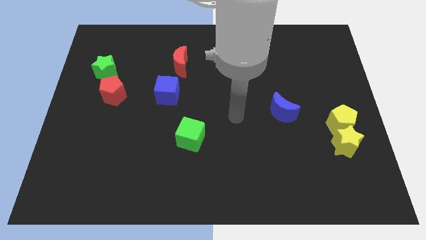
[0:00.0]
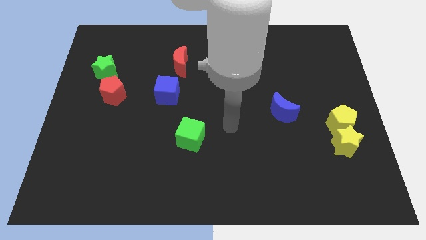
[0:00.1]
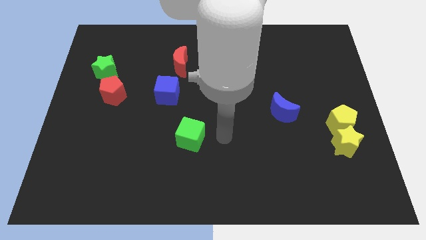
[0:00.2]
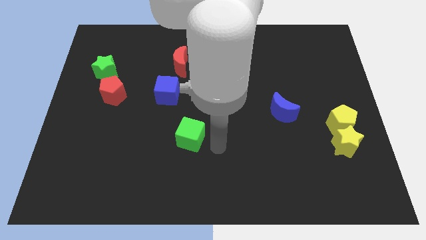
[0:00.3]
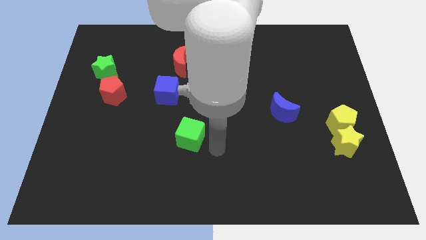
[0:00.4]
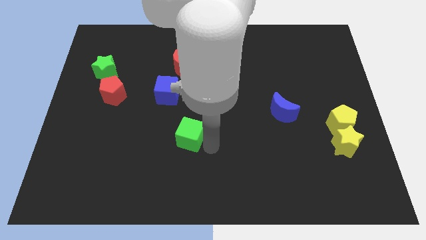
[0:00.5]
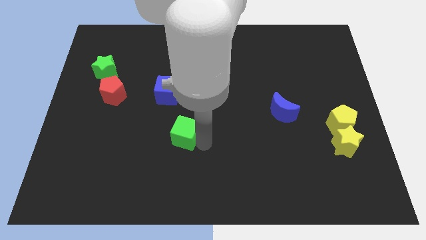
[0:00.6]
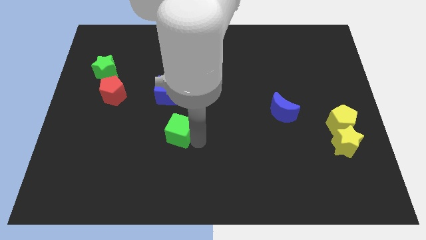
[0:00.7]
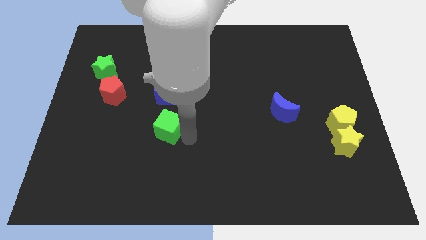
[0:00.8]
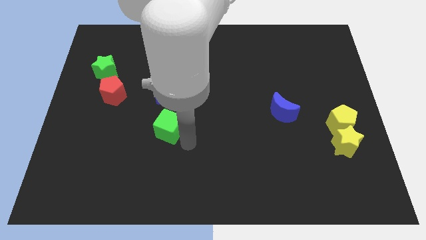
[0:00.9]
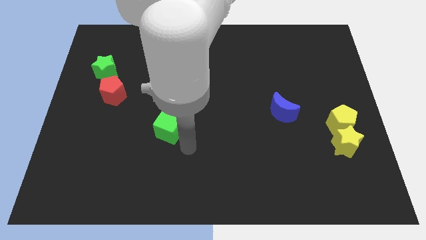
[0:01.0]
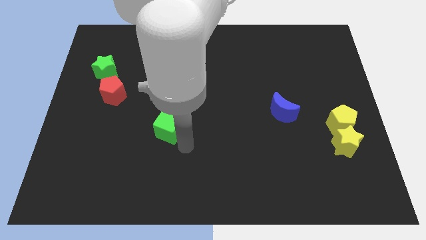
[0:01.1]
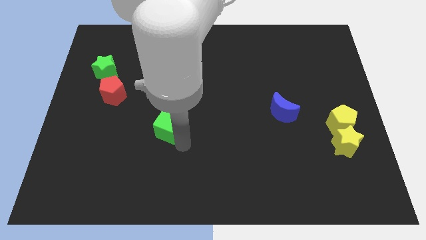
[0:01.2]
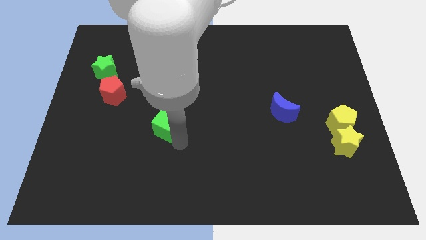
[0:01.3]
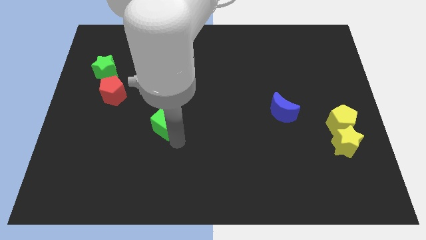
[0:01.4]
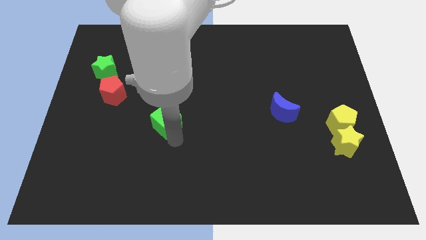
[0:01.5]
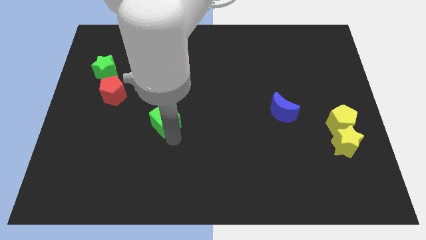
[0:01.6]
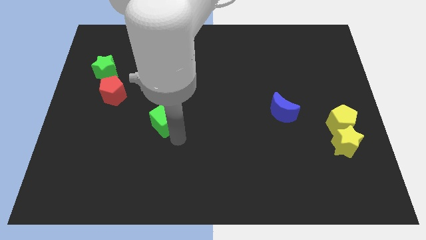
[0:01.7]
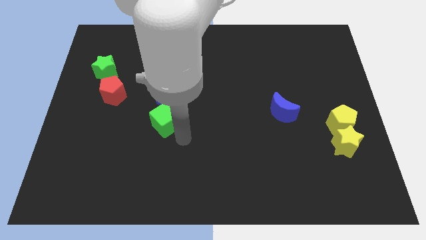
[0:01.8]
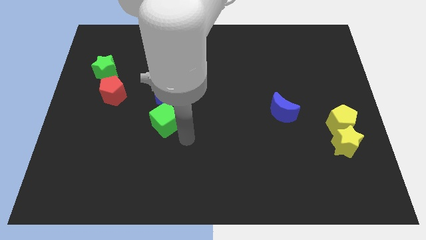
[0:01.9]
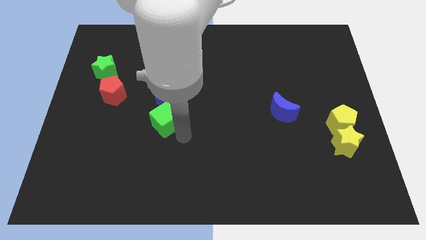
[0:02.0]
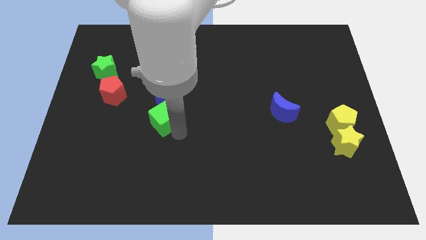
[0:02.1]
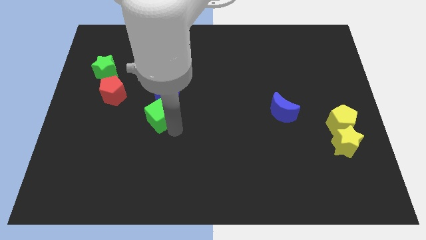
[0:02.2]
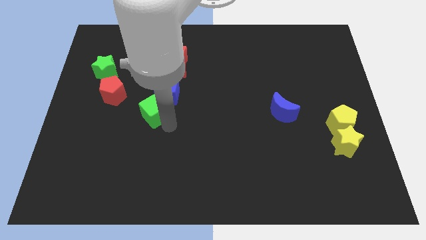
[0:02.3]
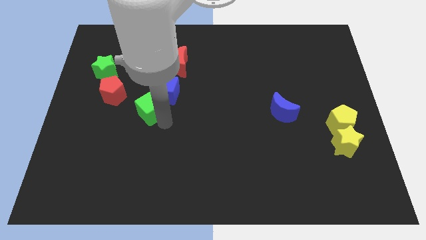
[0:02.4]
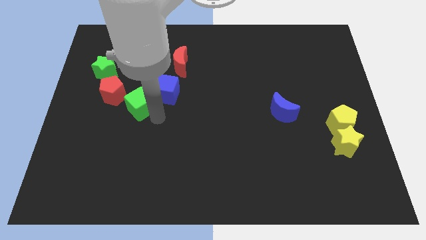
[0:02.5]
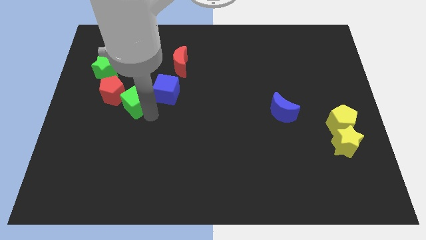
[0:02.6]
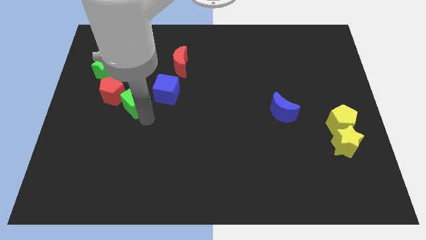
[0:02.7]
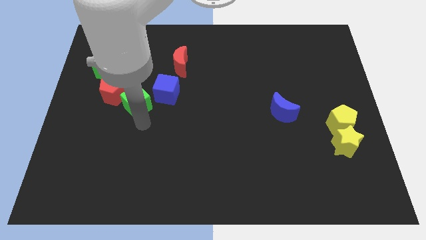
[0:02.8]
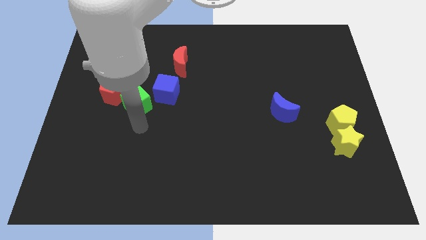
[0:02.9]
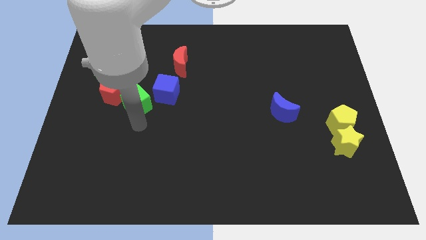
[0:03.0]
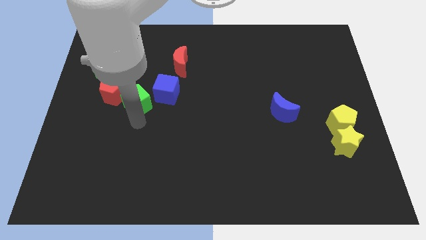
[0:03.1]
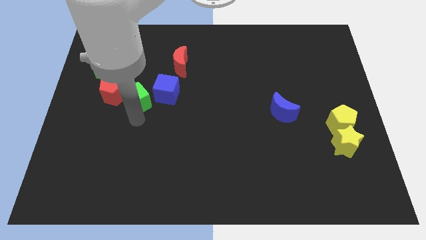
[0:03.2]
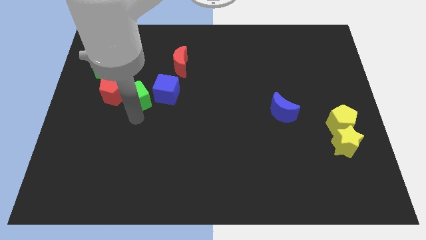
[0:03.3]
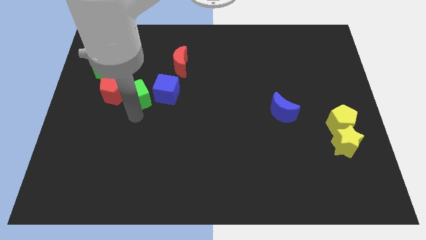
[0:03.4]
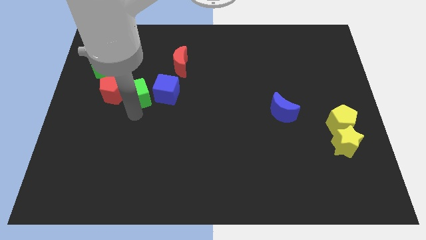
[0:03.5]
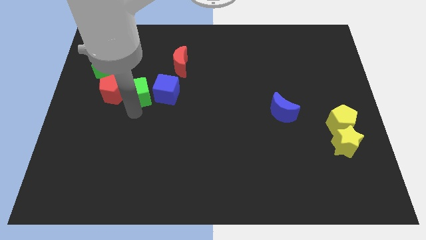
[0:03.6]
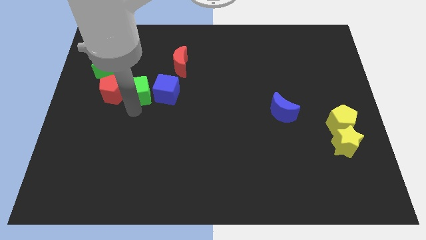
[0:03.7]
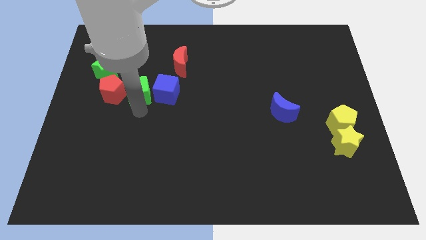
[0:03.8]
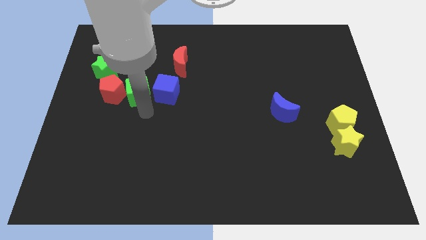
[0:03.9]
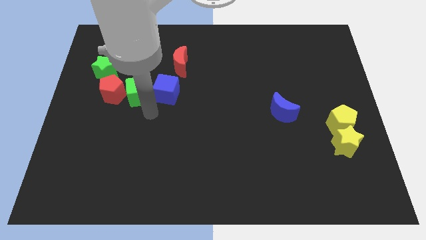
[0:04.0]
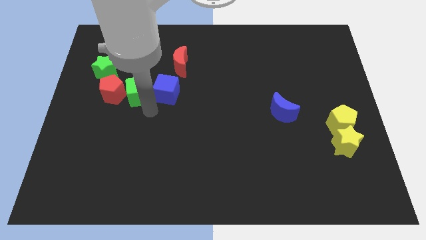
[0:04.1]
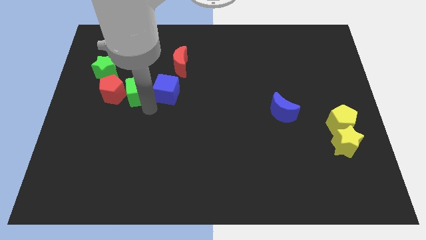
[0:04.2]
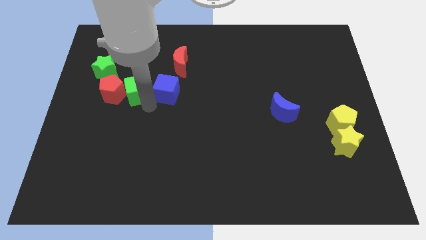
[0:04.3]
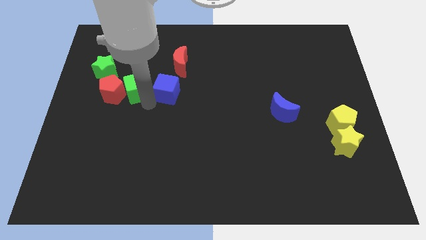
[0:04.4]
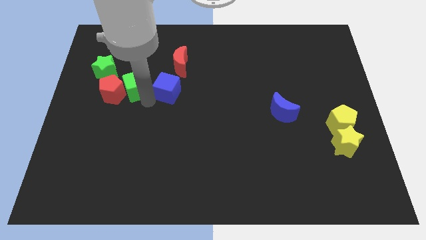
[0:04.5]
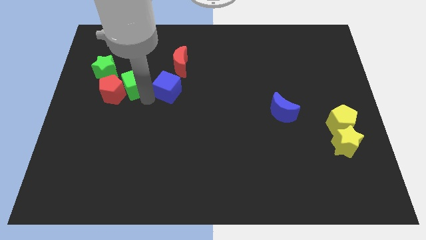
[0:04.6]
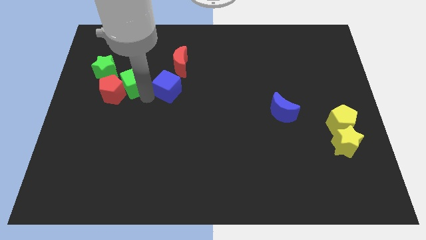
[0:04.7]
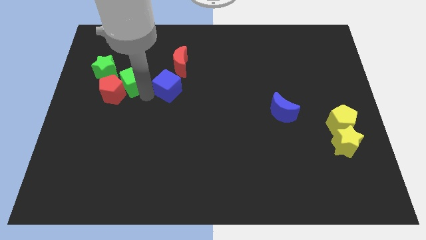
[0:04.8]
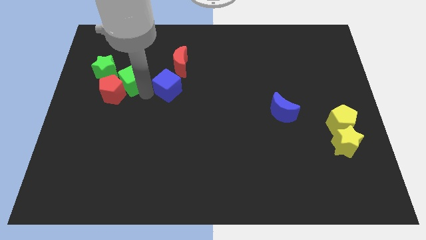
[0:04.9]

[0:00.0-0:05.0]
push the green cube to the top of the red pentagon

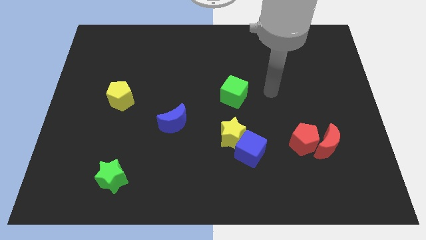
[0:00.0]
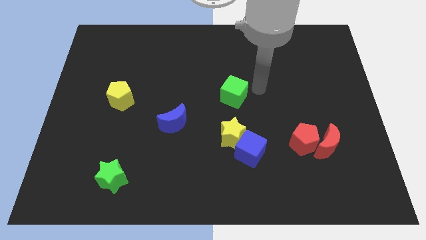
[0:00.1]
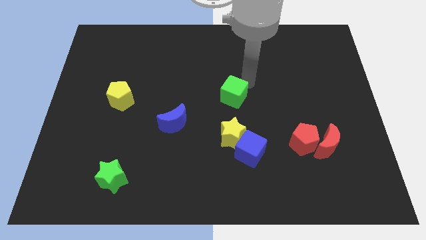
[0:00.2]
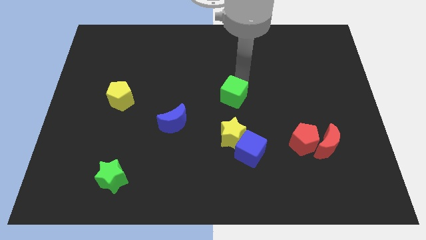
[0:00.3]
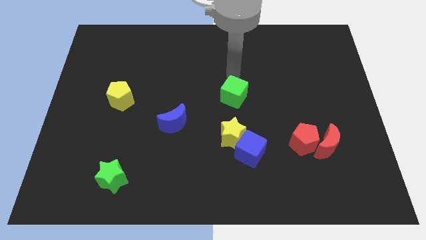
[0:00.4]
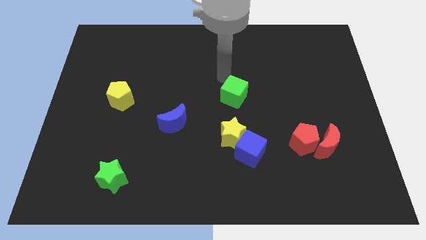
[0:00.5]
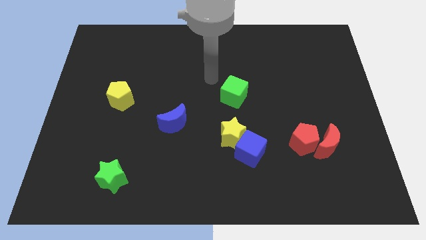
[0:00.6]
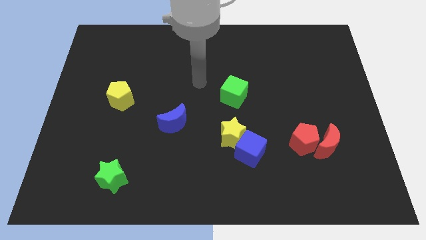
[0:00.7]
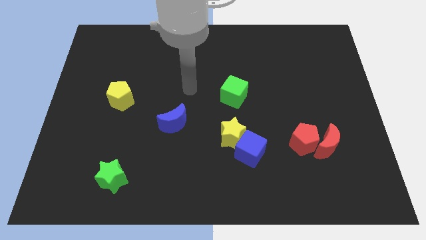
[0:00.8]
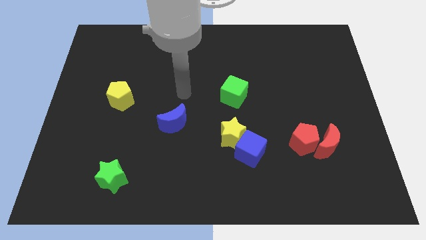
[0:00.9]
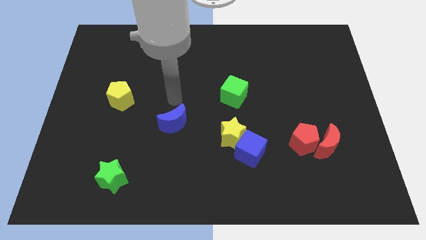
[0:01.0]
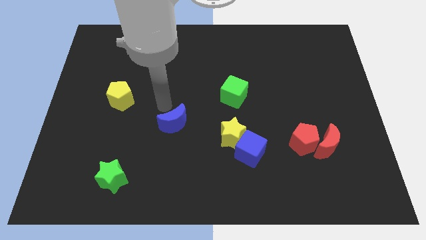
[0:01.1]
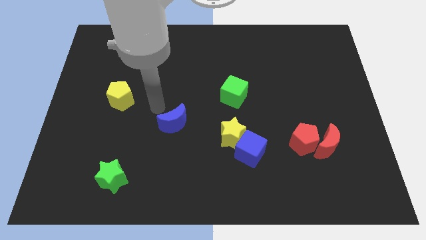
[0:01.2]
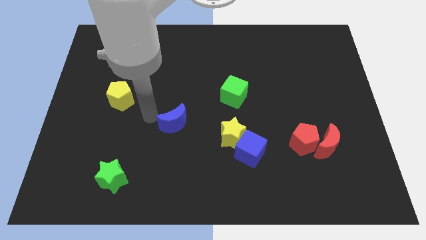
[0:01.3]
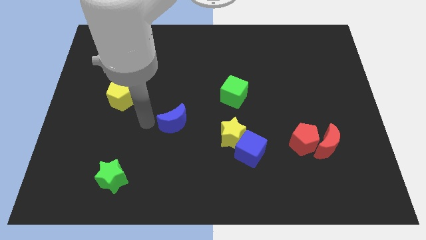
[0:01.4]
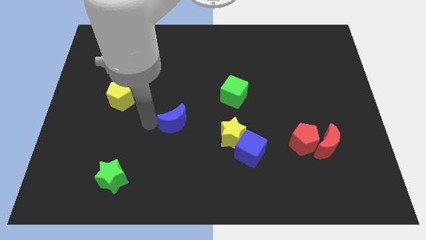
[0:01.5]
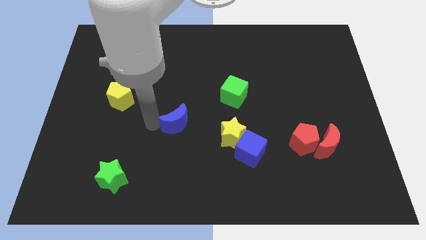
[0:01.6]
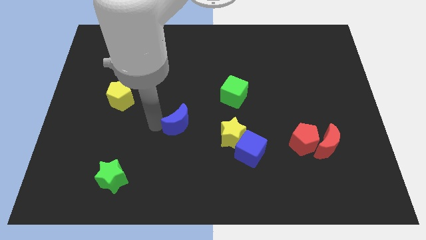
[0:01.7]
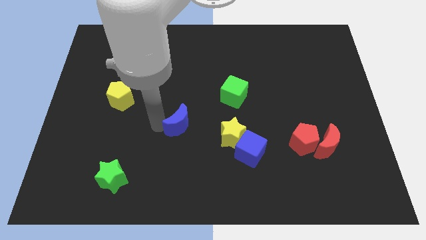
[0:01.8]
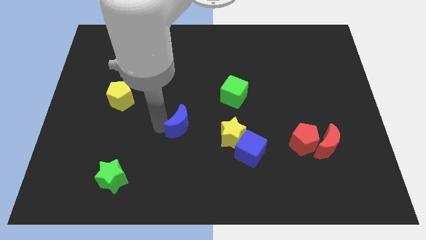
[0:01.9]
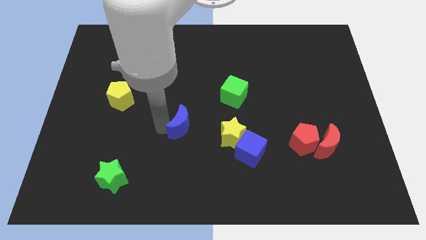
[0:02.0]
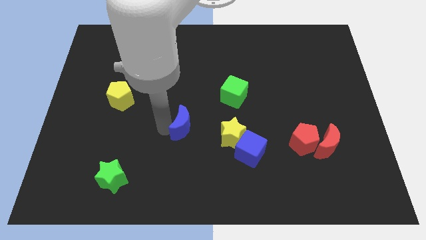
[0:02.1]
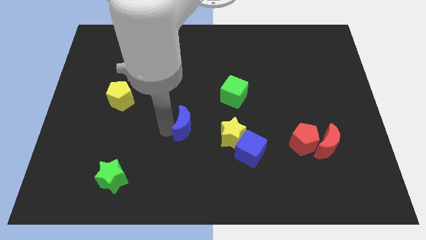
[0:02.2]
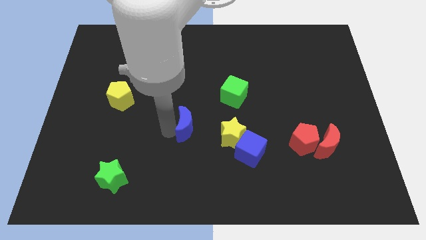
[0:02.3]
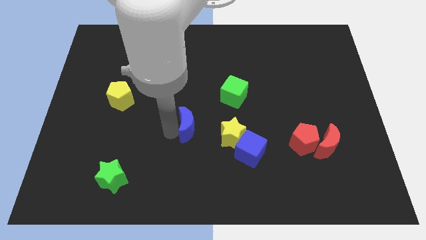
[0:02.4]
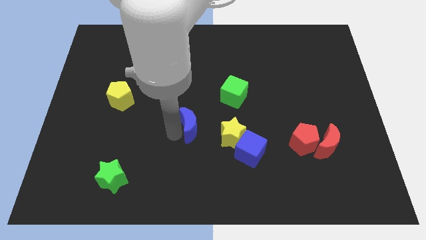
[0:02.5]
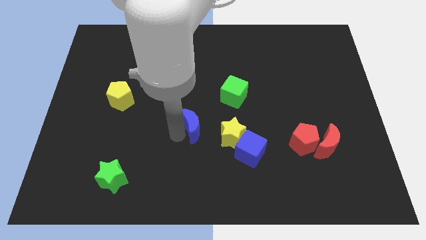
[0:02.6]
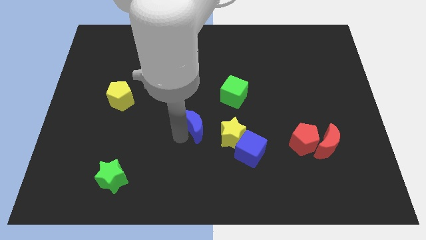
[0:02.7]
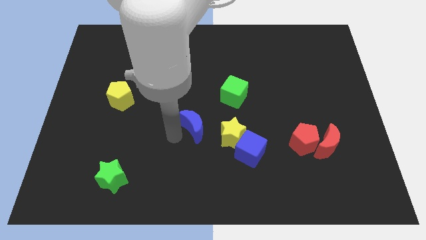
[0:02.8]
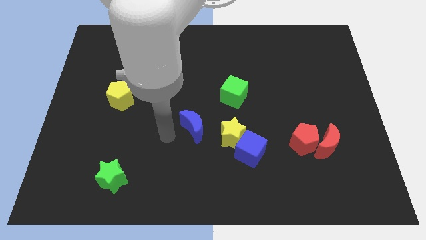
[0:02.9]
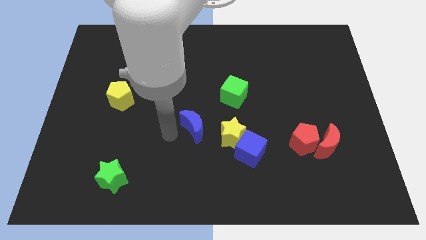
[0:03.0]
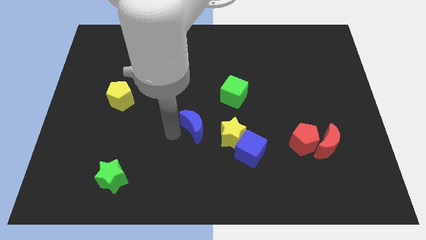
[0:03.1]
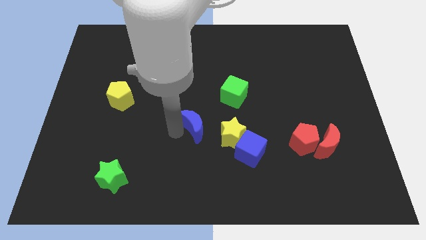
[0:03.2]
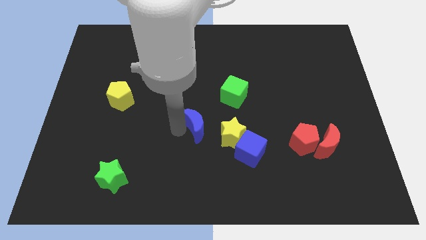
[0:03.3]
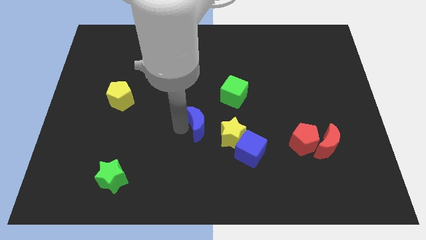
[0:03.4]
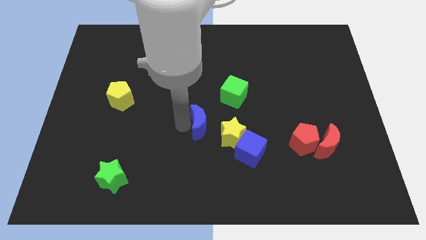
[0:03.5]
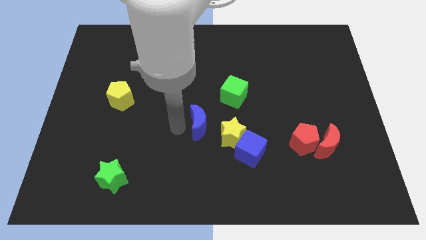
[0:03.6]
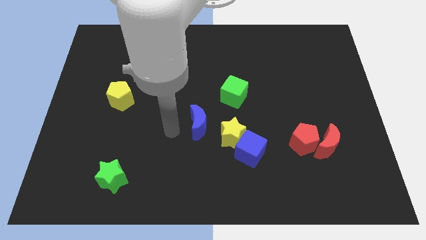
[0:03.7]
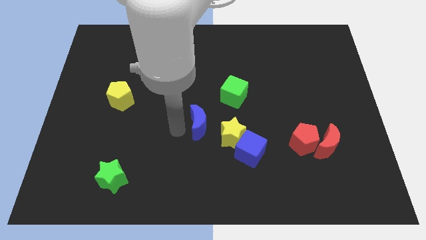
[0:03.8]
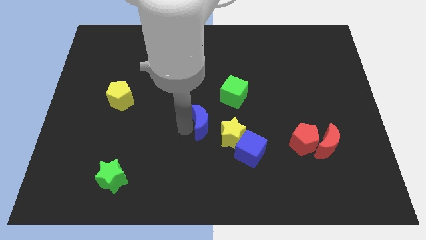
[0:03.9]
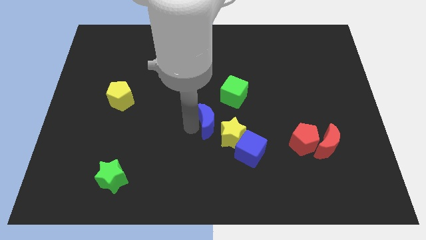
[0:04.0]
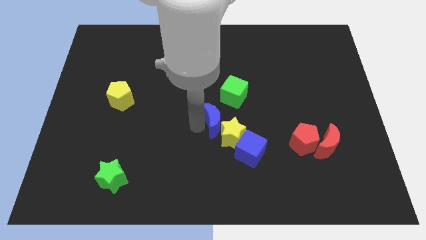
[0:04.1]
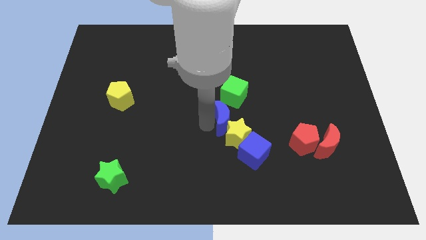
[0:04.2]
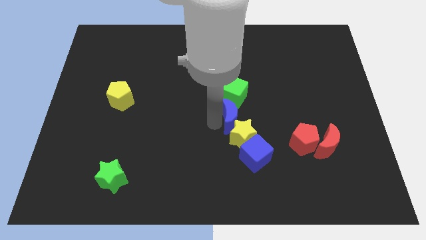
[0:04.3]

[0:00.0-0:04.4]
move the blue moon to the top of the blue cube
